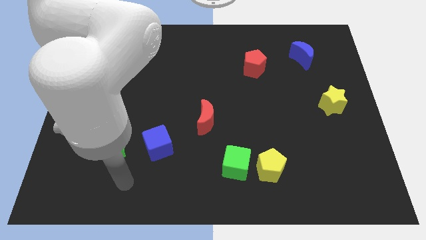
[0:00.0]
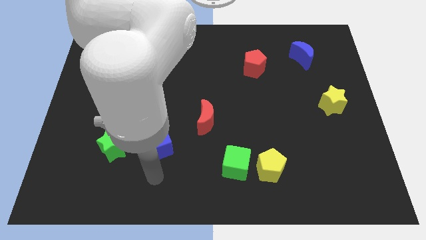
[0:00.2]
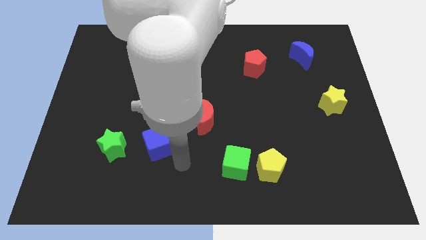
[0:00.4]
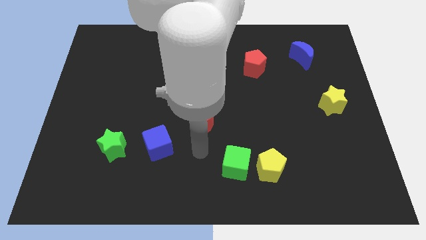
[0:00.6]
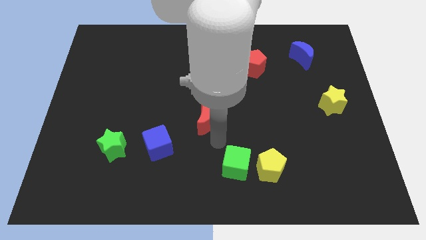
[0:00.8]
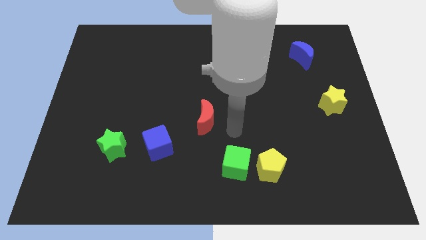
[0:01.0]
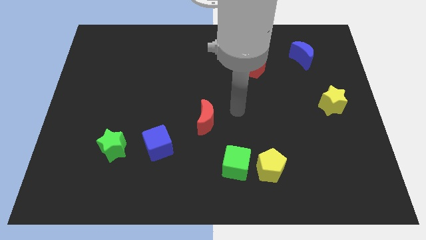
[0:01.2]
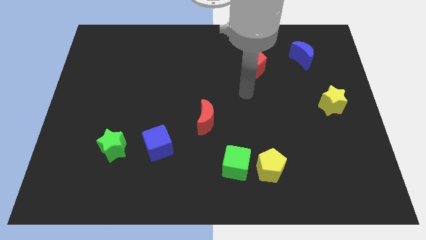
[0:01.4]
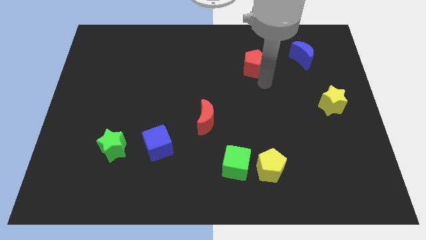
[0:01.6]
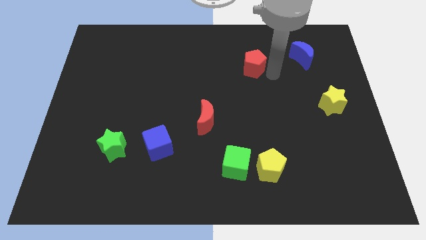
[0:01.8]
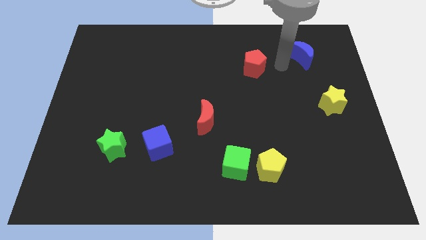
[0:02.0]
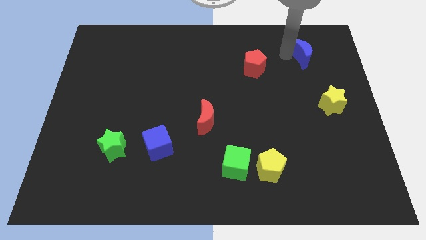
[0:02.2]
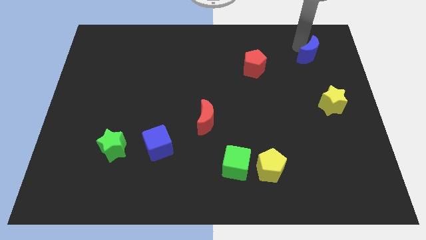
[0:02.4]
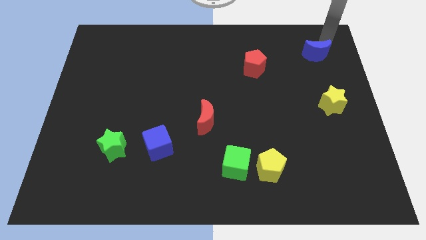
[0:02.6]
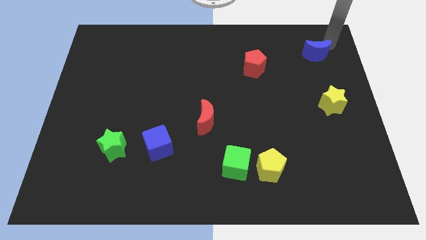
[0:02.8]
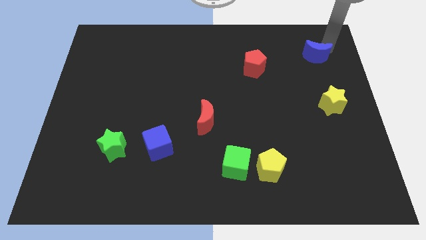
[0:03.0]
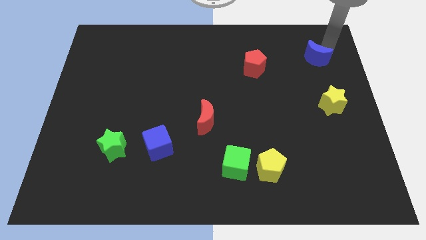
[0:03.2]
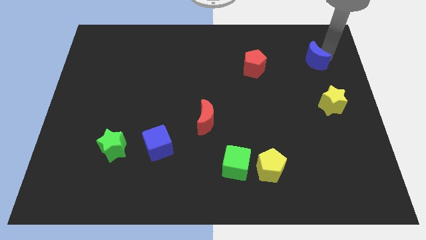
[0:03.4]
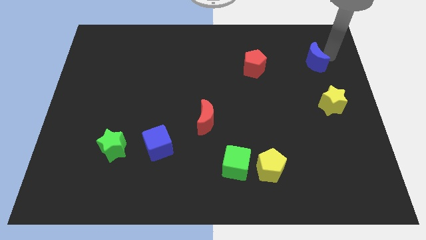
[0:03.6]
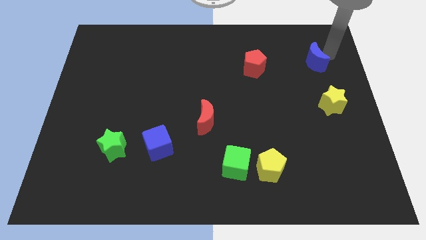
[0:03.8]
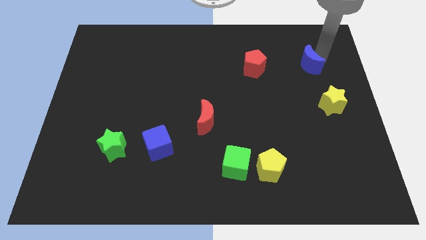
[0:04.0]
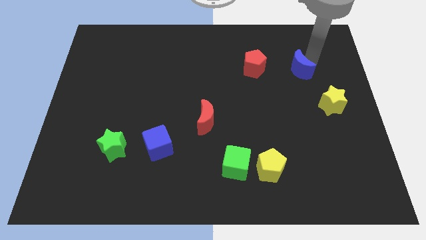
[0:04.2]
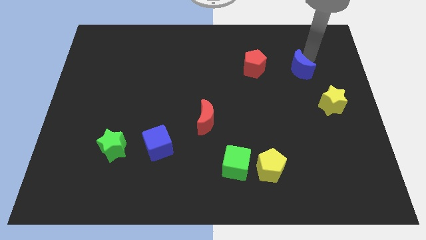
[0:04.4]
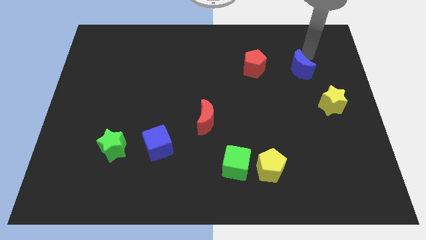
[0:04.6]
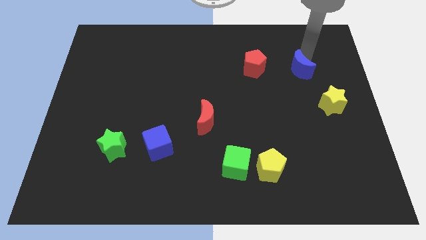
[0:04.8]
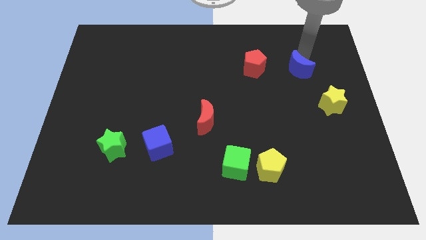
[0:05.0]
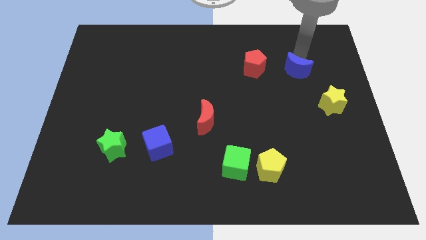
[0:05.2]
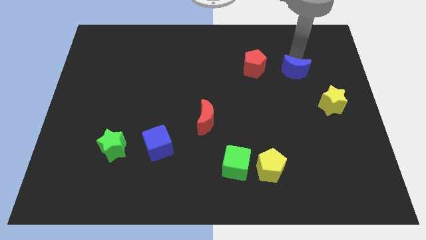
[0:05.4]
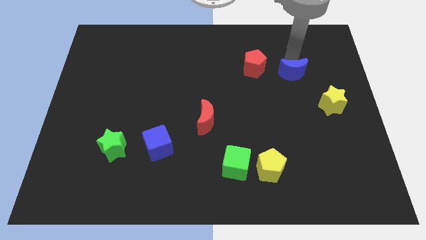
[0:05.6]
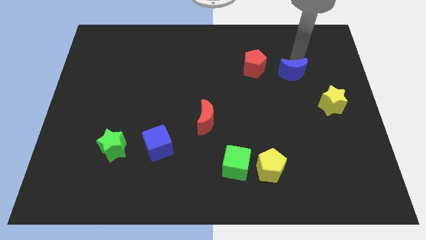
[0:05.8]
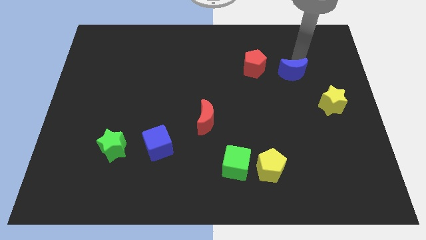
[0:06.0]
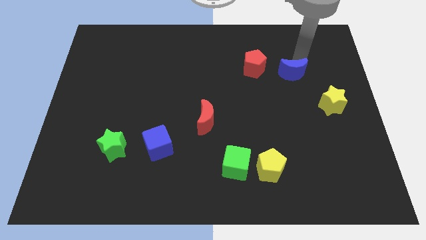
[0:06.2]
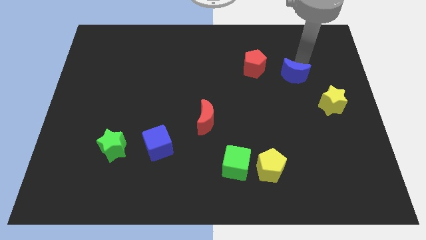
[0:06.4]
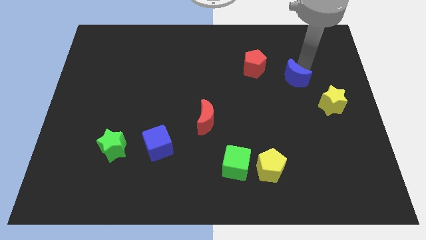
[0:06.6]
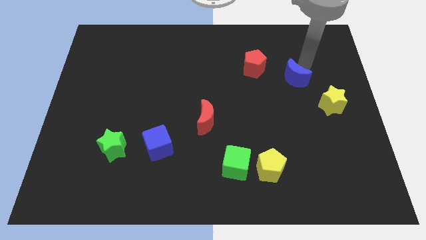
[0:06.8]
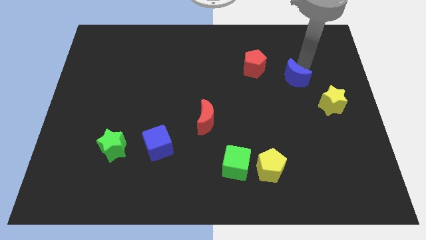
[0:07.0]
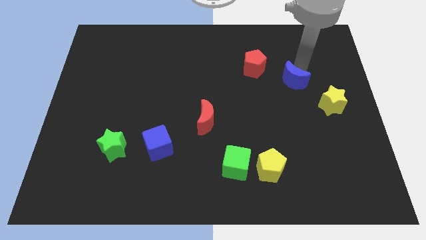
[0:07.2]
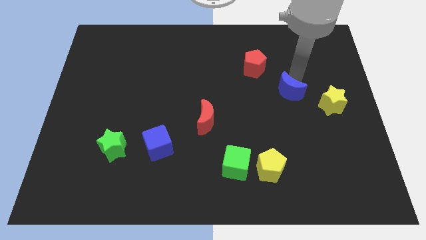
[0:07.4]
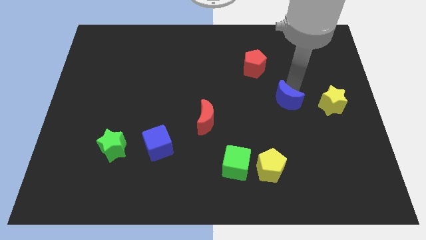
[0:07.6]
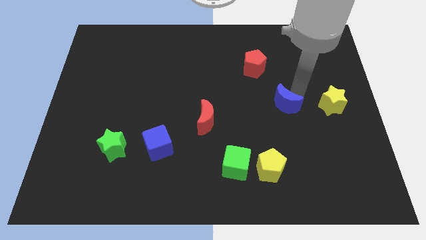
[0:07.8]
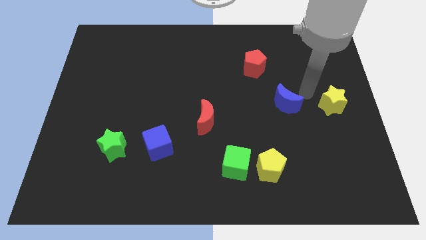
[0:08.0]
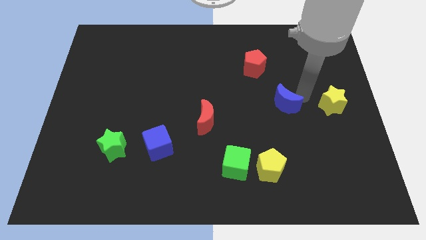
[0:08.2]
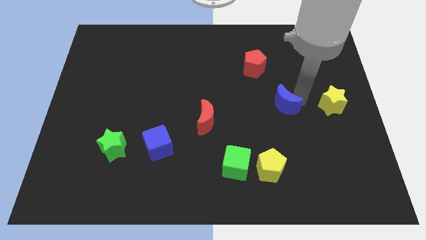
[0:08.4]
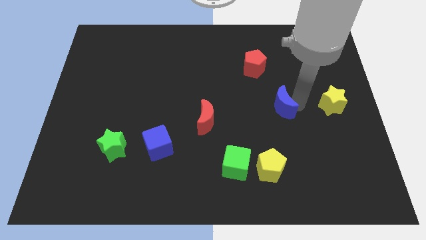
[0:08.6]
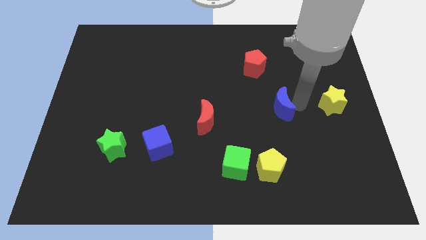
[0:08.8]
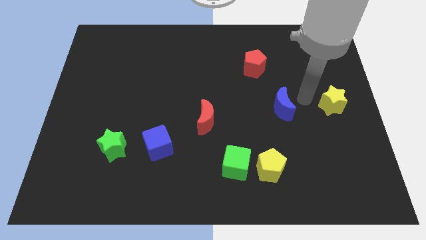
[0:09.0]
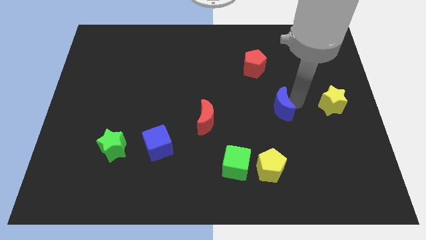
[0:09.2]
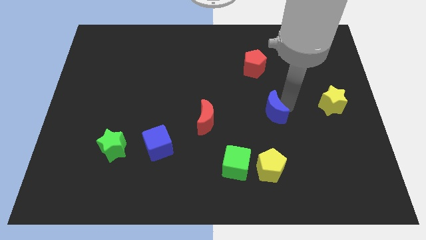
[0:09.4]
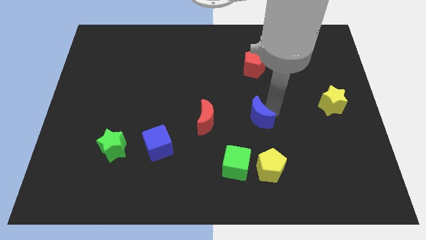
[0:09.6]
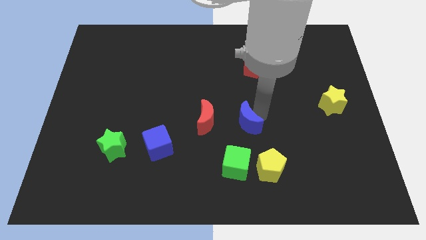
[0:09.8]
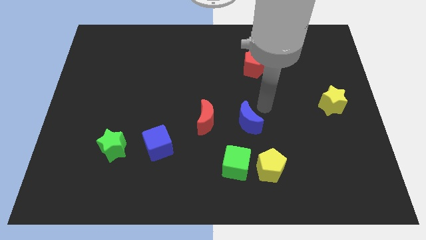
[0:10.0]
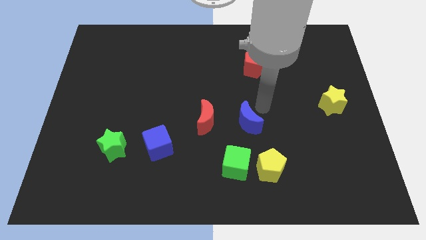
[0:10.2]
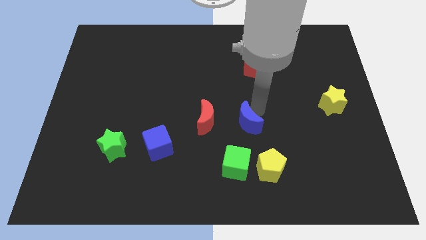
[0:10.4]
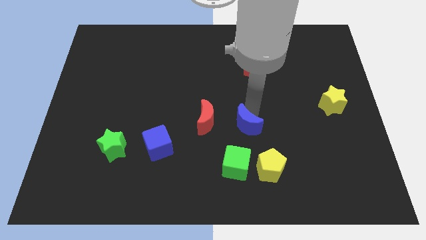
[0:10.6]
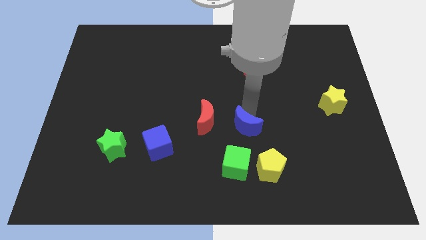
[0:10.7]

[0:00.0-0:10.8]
move the blue moon diagonally down and to the right of the red moon

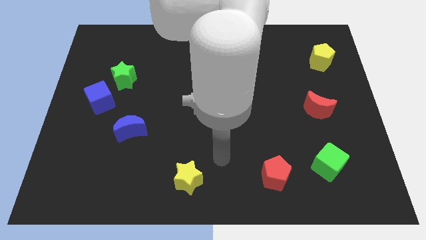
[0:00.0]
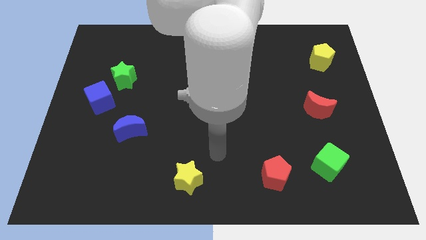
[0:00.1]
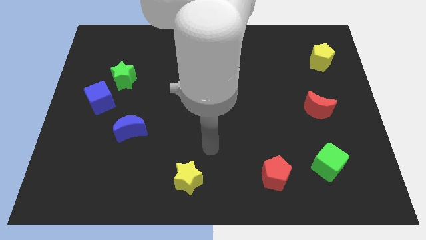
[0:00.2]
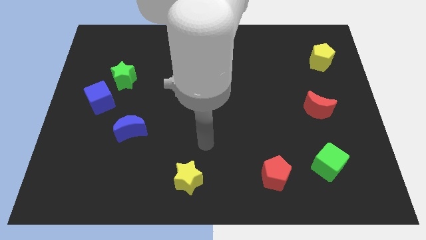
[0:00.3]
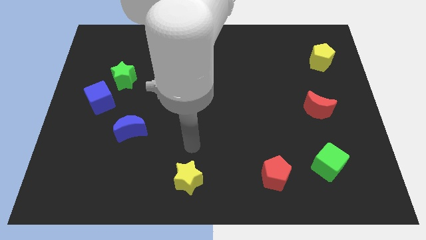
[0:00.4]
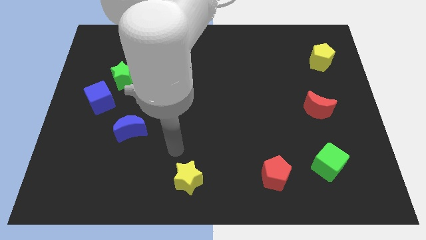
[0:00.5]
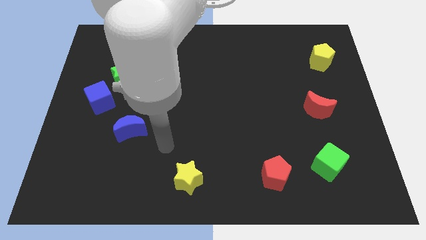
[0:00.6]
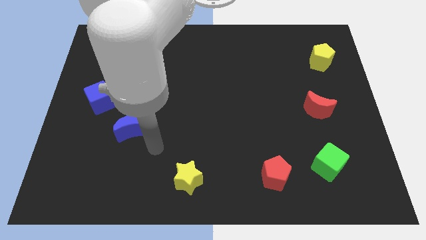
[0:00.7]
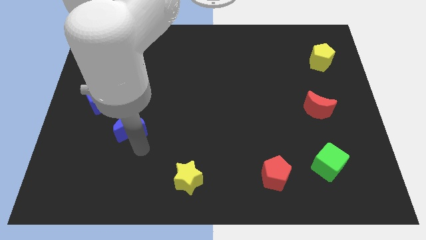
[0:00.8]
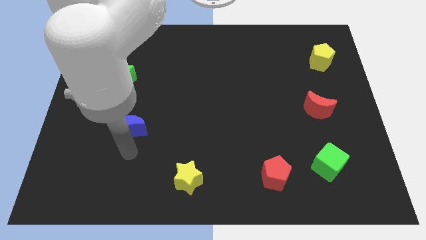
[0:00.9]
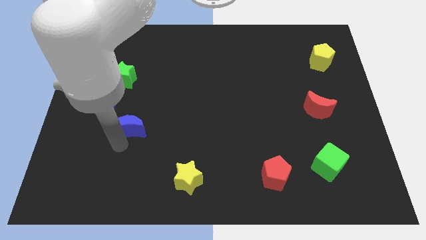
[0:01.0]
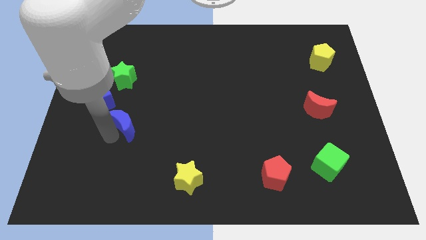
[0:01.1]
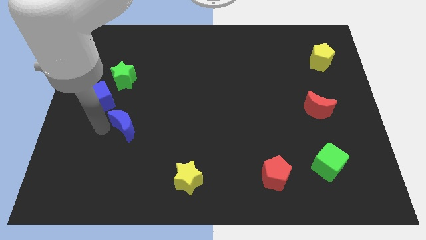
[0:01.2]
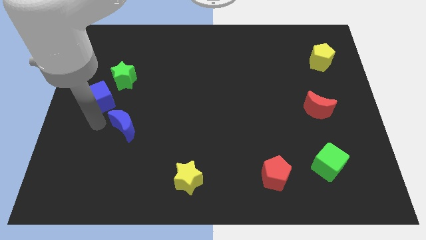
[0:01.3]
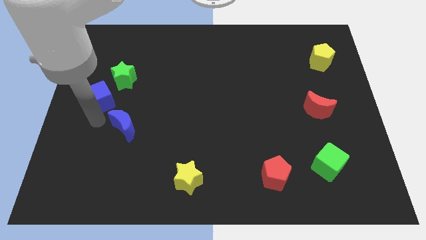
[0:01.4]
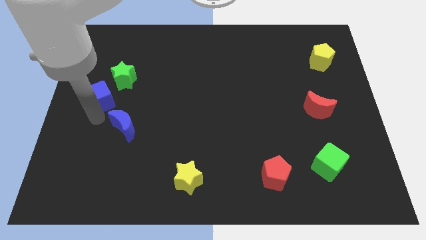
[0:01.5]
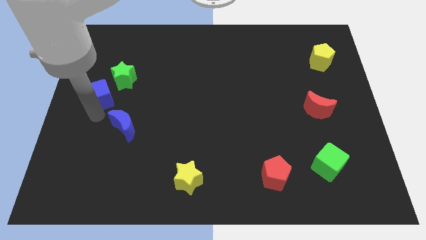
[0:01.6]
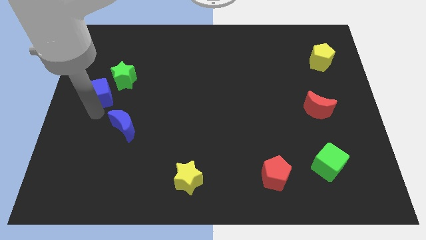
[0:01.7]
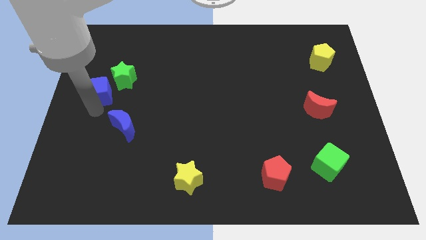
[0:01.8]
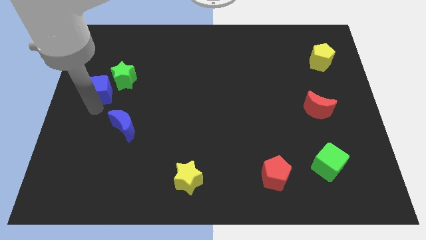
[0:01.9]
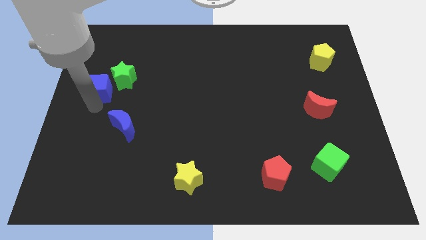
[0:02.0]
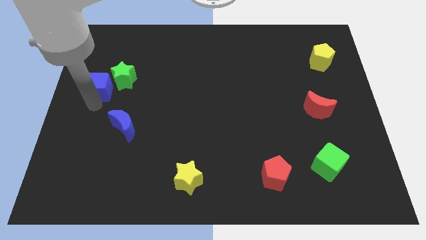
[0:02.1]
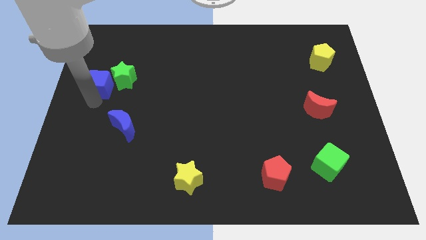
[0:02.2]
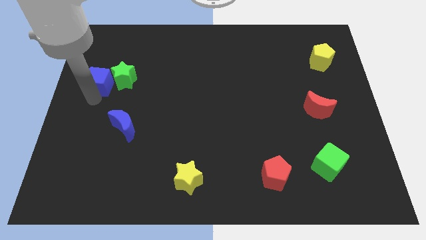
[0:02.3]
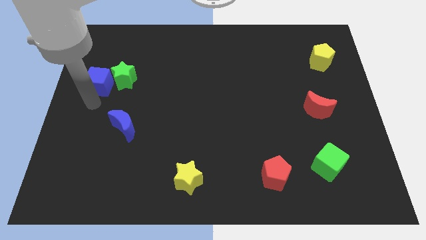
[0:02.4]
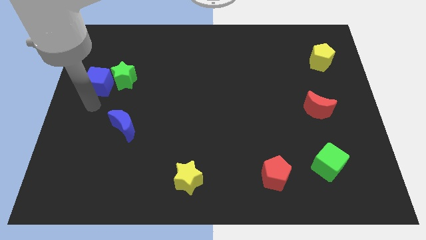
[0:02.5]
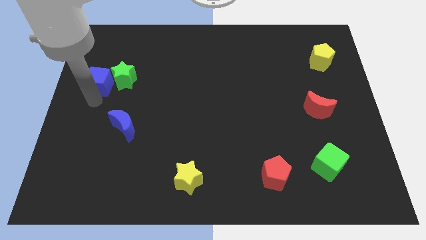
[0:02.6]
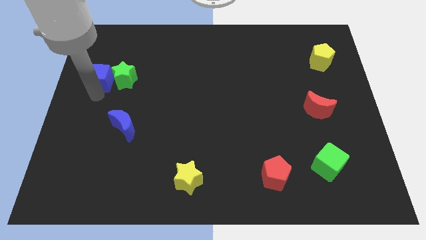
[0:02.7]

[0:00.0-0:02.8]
put the blue cube to the top left side of the green star

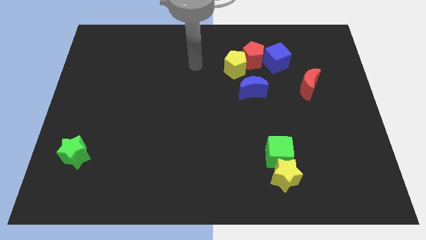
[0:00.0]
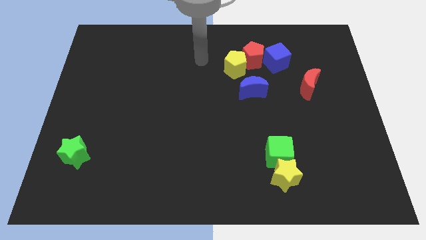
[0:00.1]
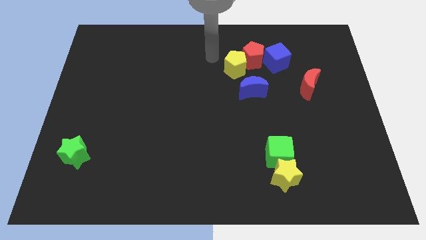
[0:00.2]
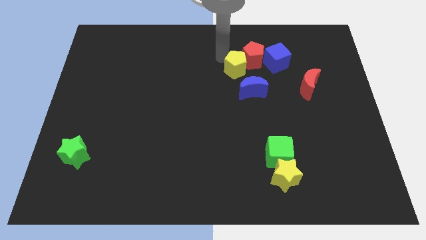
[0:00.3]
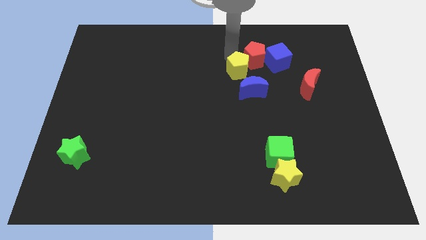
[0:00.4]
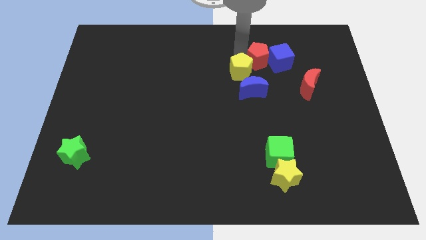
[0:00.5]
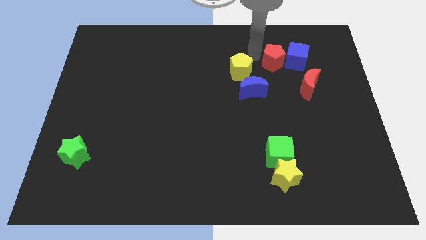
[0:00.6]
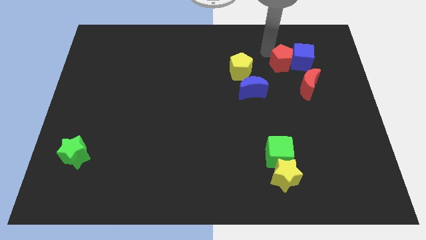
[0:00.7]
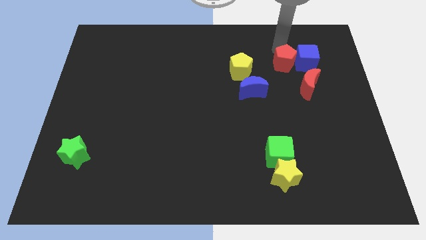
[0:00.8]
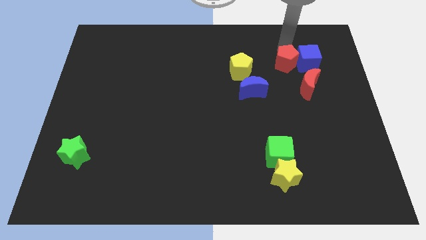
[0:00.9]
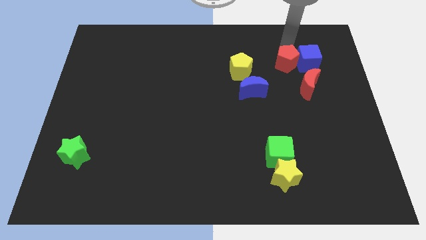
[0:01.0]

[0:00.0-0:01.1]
slide the blue cube to the top right of the red moon
